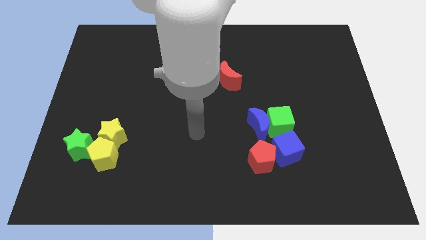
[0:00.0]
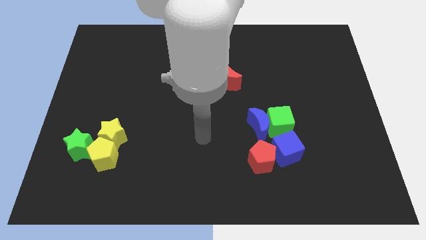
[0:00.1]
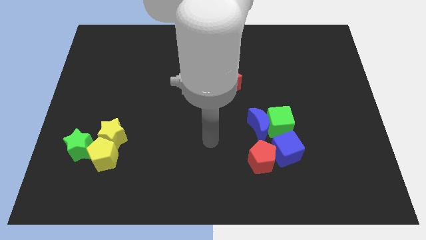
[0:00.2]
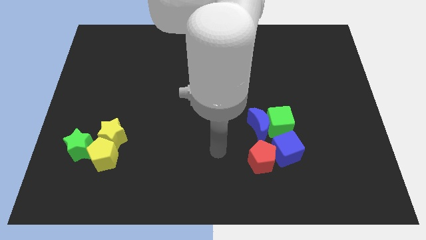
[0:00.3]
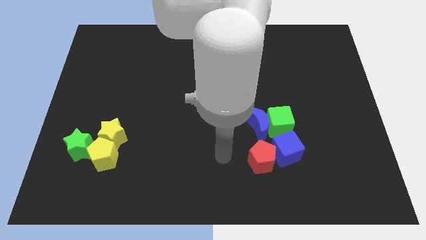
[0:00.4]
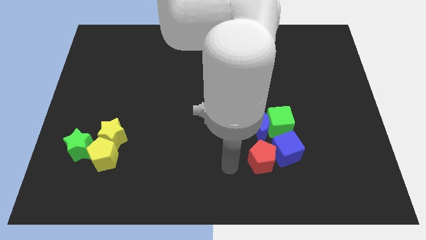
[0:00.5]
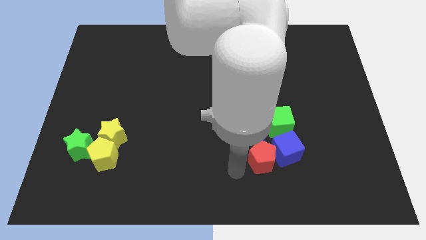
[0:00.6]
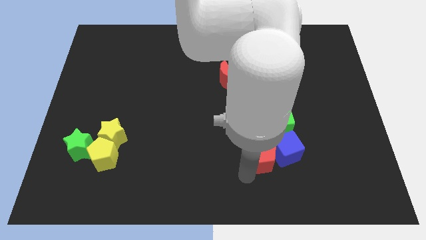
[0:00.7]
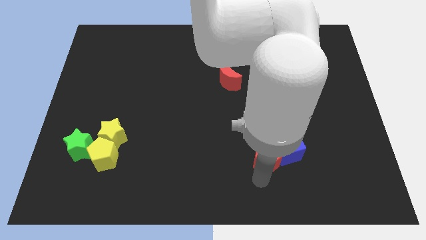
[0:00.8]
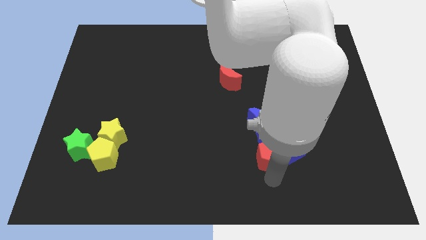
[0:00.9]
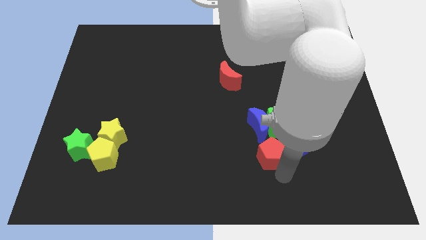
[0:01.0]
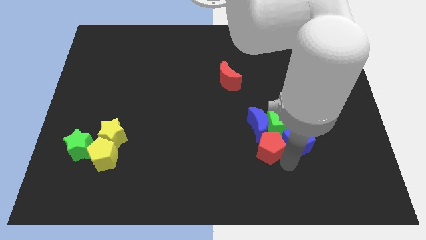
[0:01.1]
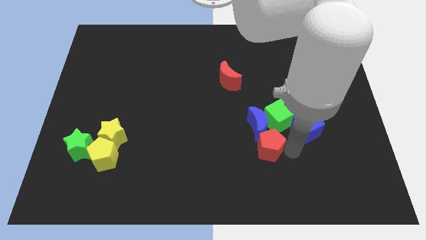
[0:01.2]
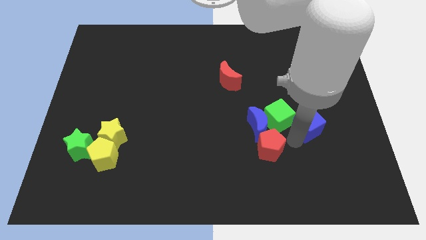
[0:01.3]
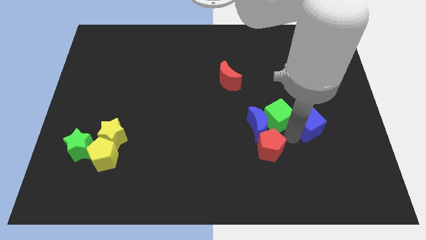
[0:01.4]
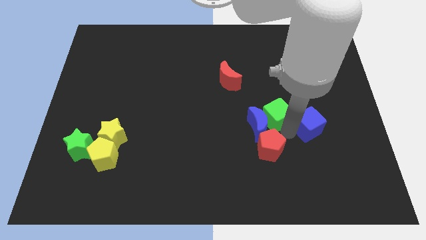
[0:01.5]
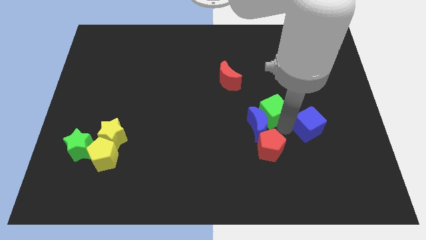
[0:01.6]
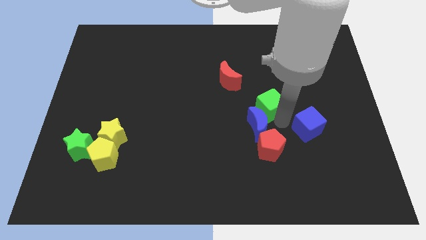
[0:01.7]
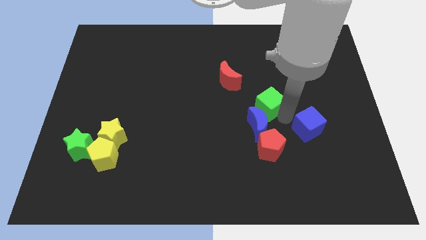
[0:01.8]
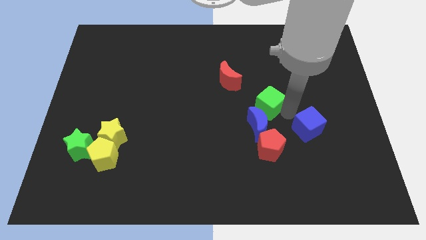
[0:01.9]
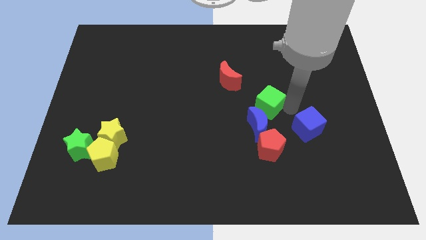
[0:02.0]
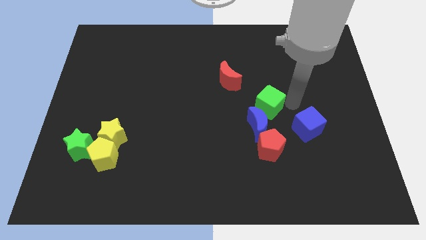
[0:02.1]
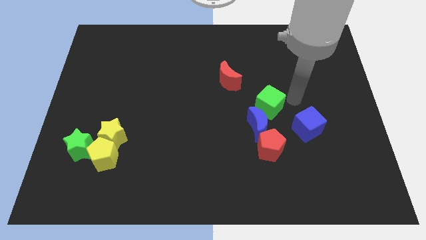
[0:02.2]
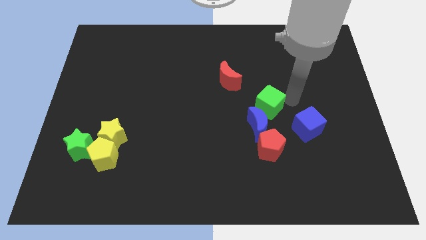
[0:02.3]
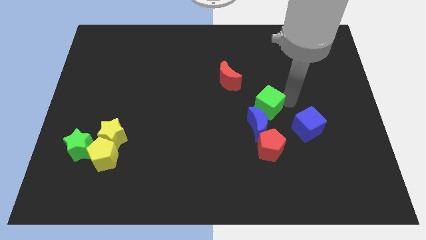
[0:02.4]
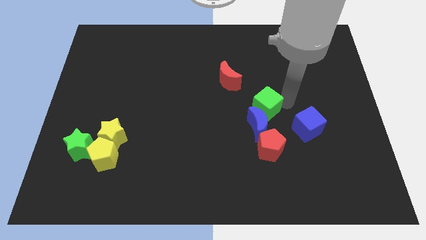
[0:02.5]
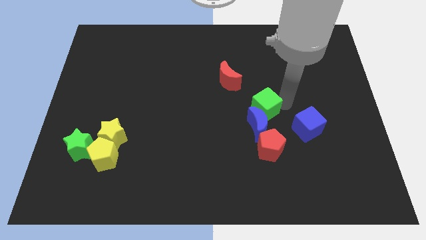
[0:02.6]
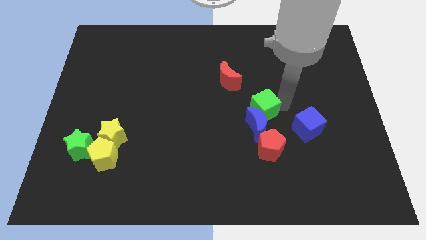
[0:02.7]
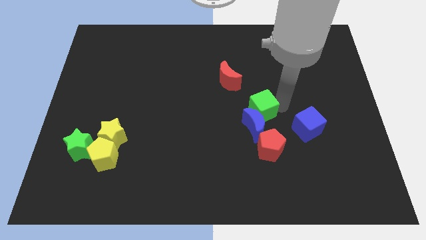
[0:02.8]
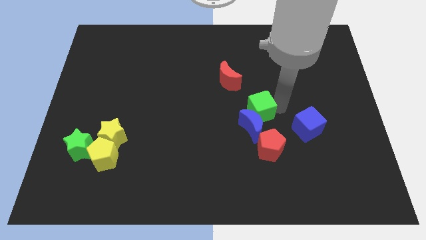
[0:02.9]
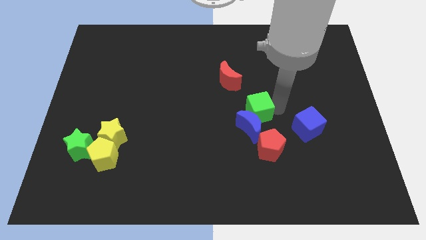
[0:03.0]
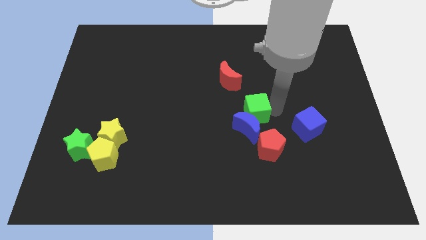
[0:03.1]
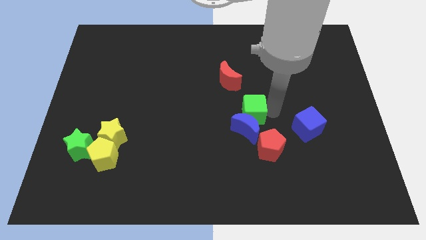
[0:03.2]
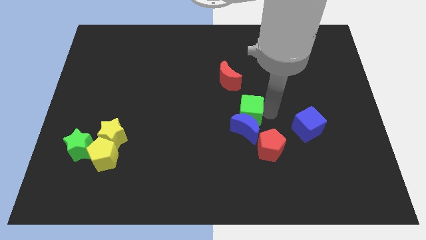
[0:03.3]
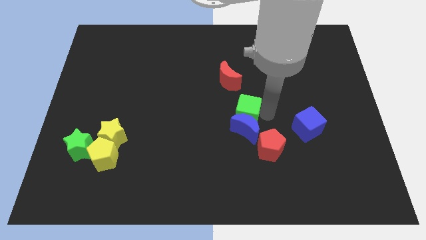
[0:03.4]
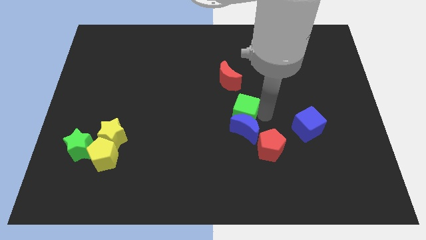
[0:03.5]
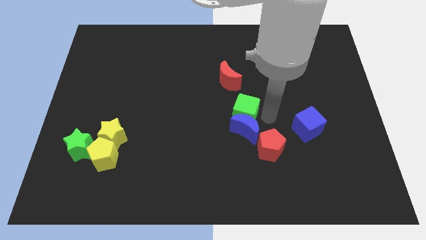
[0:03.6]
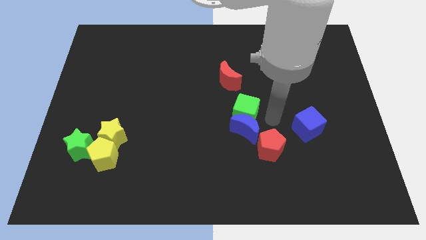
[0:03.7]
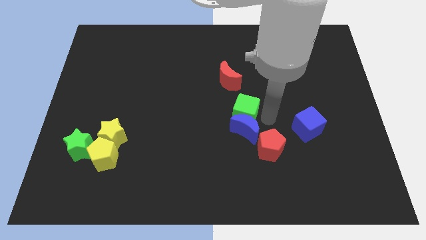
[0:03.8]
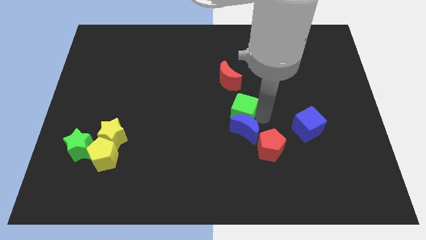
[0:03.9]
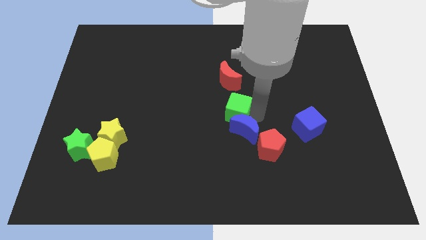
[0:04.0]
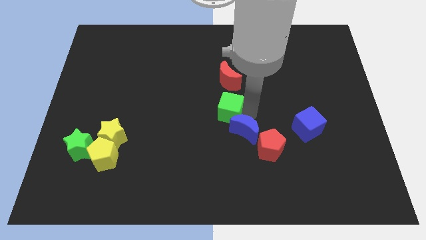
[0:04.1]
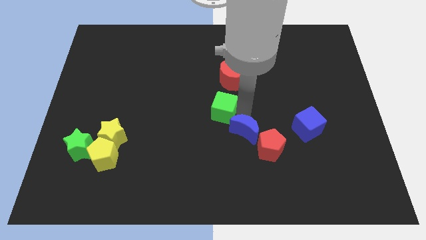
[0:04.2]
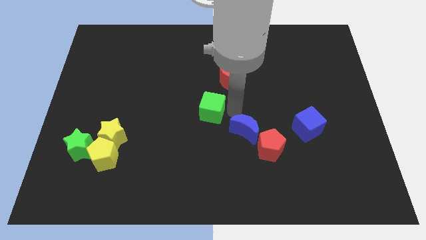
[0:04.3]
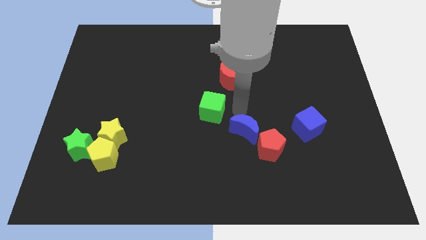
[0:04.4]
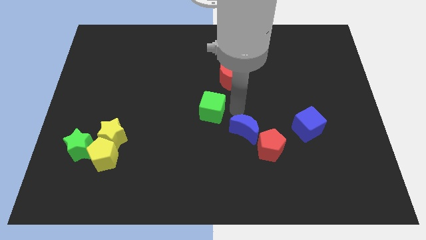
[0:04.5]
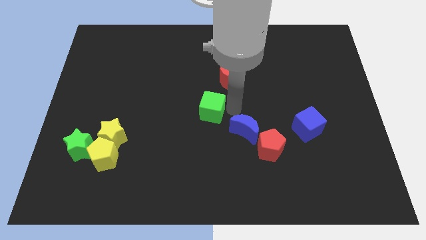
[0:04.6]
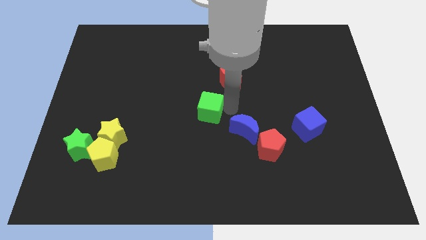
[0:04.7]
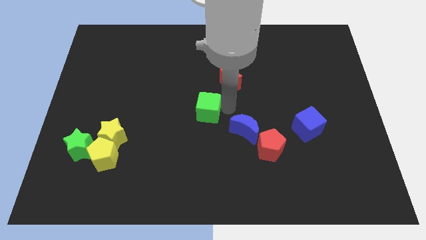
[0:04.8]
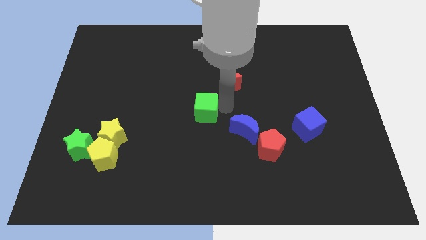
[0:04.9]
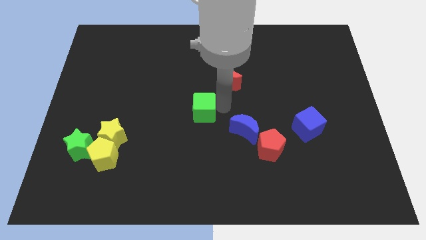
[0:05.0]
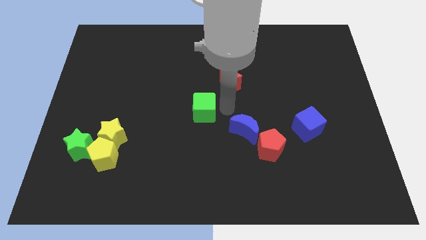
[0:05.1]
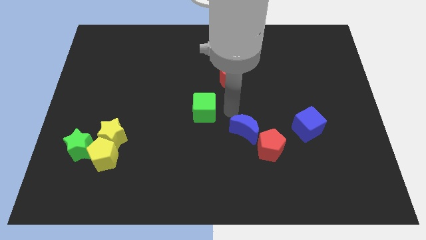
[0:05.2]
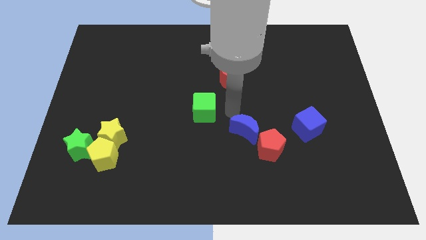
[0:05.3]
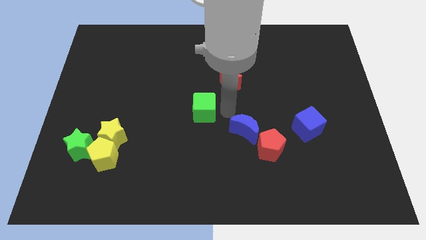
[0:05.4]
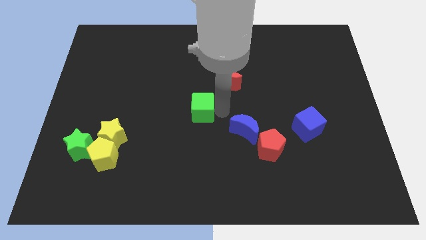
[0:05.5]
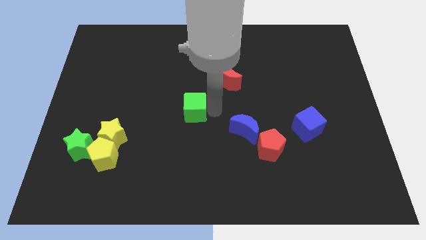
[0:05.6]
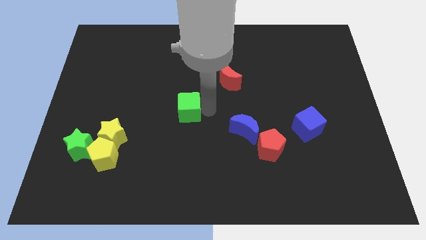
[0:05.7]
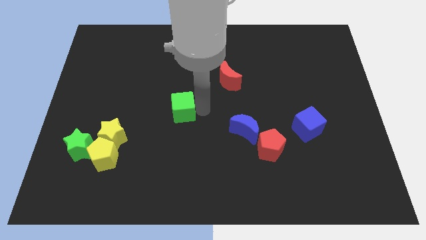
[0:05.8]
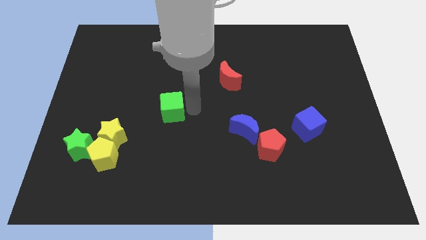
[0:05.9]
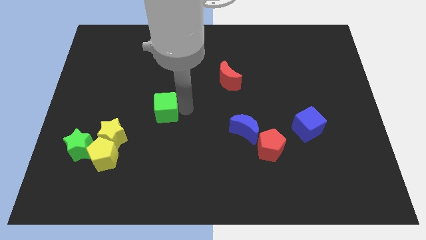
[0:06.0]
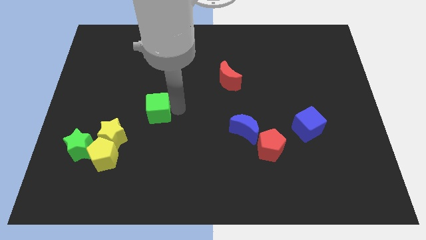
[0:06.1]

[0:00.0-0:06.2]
move the green cube to the top right side of the yellow star
